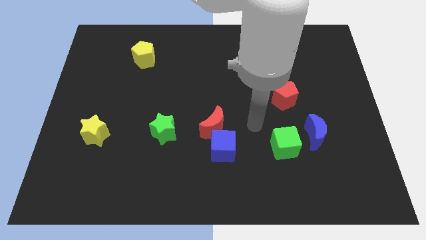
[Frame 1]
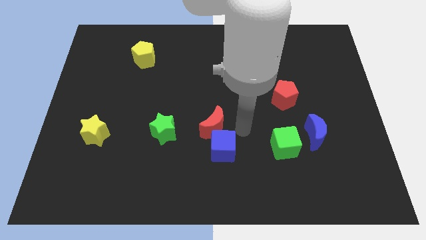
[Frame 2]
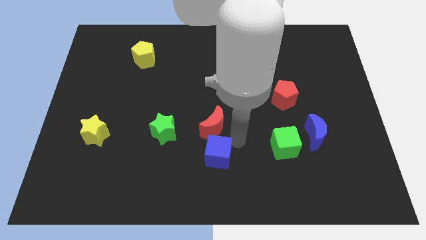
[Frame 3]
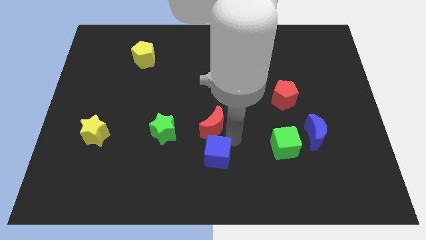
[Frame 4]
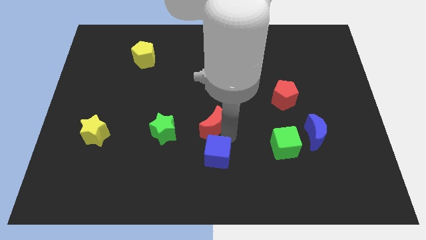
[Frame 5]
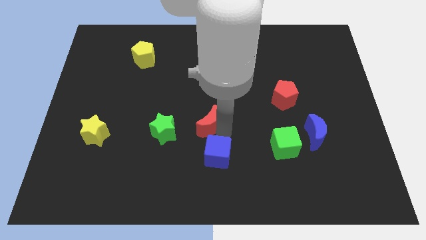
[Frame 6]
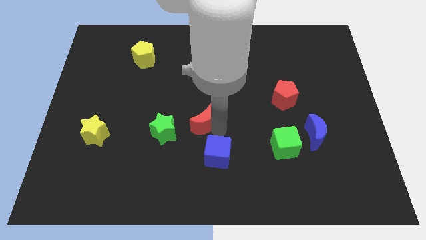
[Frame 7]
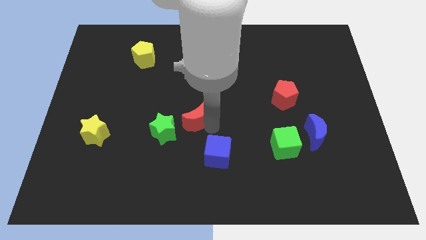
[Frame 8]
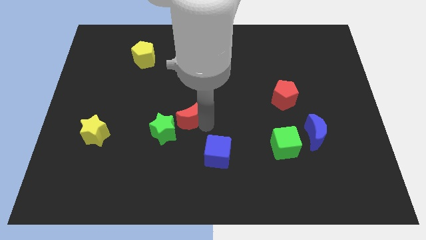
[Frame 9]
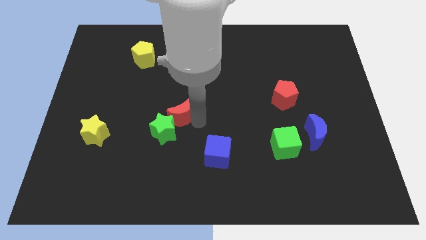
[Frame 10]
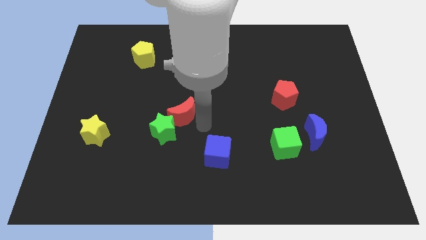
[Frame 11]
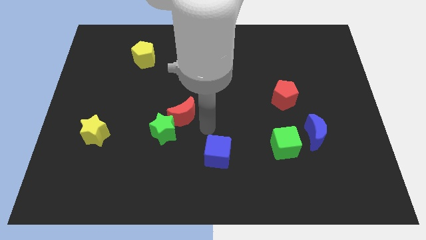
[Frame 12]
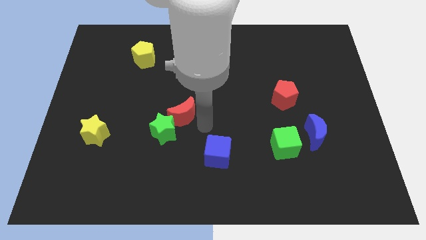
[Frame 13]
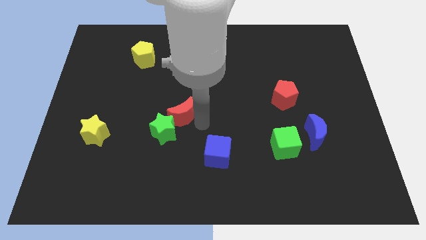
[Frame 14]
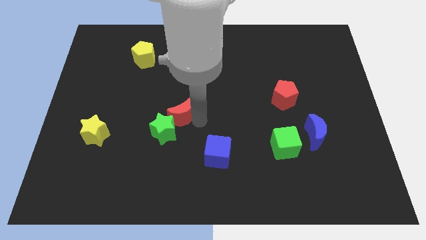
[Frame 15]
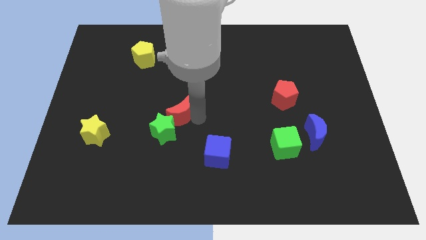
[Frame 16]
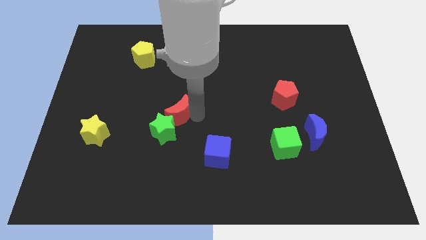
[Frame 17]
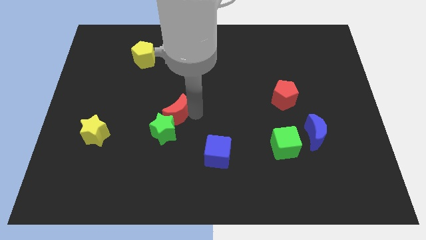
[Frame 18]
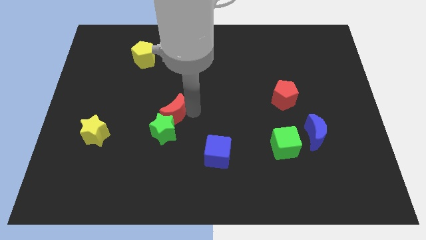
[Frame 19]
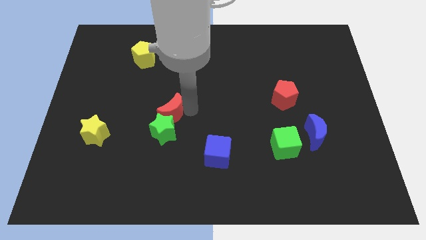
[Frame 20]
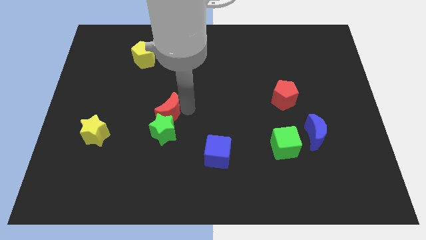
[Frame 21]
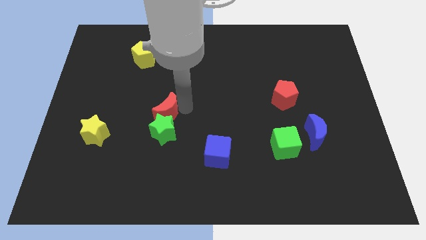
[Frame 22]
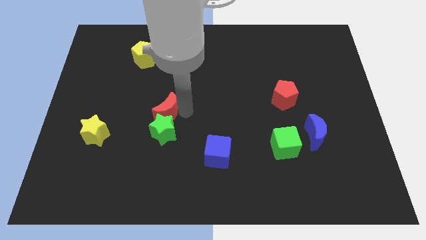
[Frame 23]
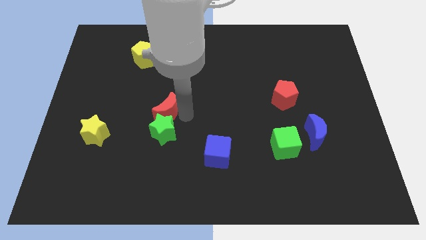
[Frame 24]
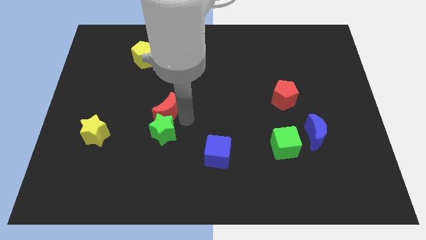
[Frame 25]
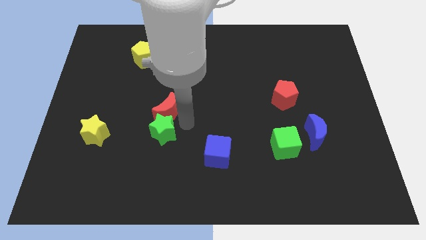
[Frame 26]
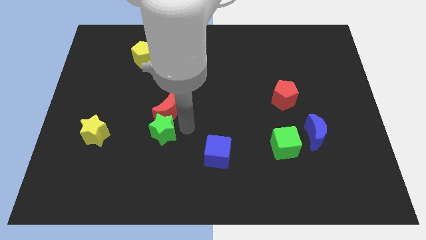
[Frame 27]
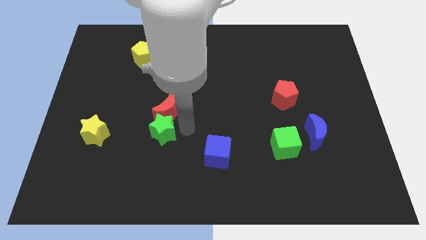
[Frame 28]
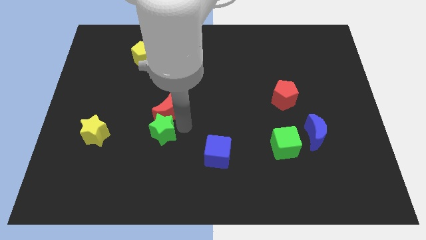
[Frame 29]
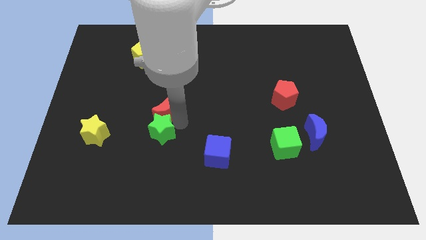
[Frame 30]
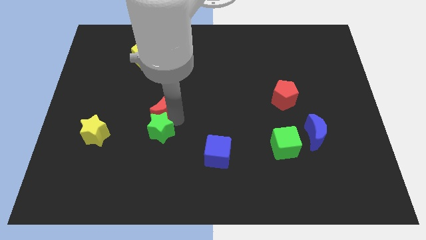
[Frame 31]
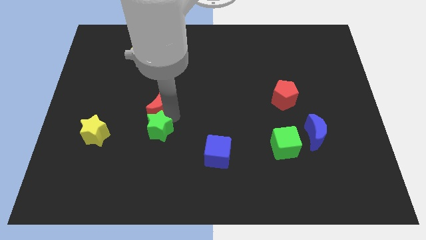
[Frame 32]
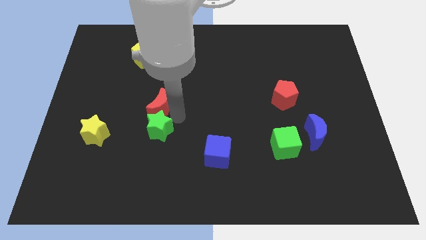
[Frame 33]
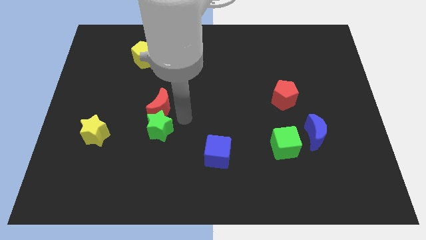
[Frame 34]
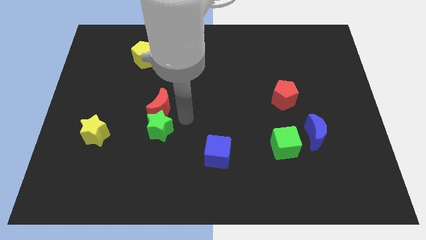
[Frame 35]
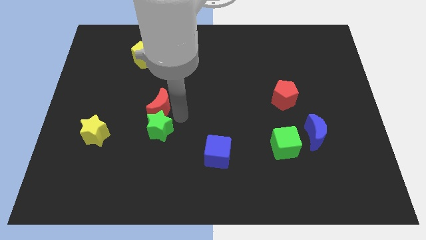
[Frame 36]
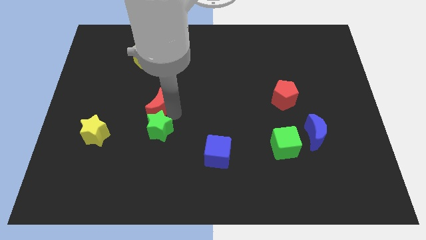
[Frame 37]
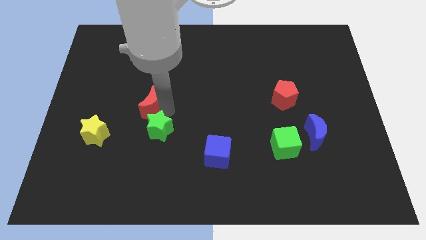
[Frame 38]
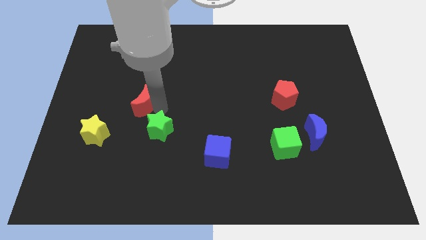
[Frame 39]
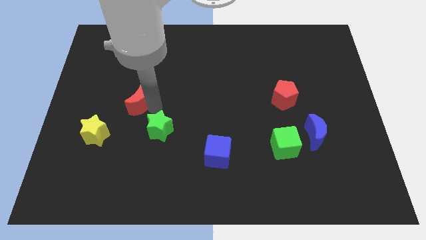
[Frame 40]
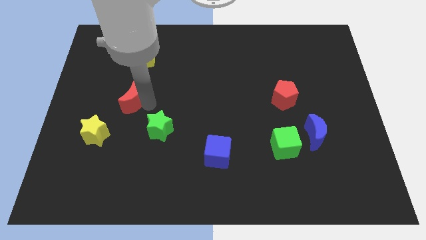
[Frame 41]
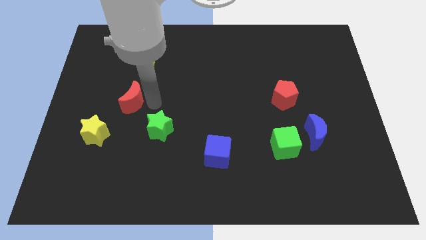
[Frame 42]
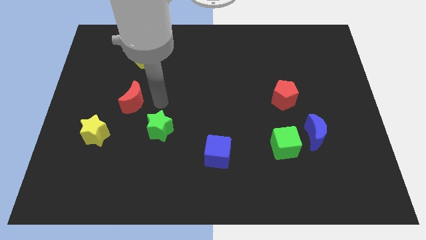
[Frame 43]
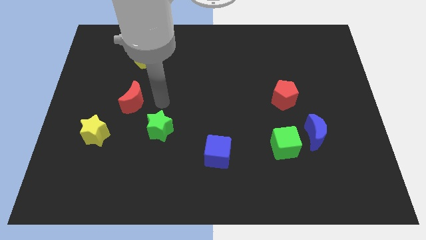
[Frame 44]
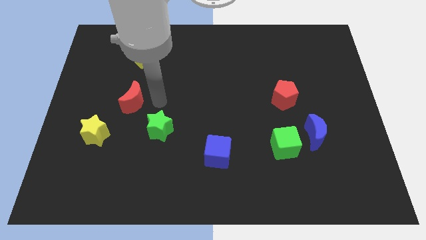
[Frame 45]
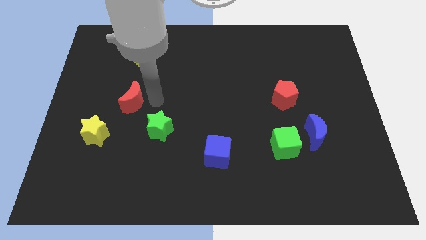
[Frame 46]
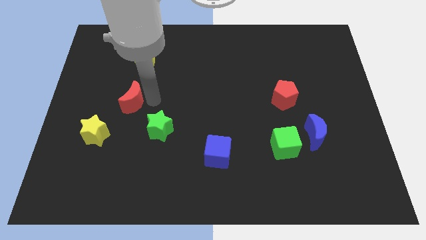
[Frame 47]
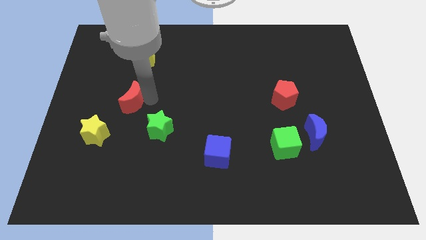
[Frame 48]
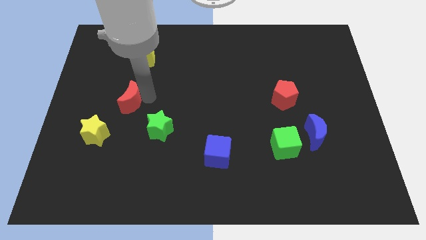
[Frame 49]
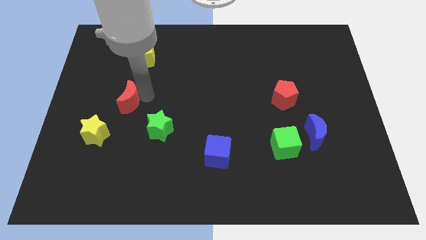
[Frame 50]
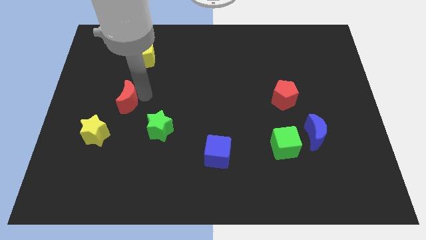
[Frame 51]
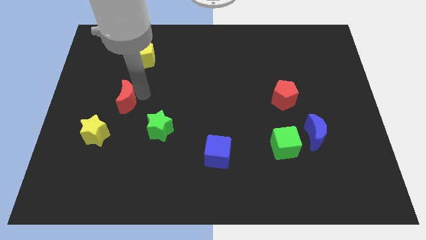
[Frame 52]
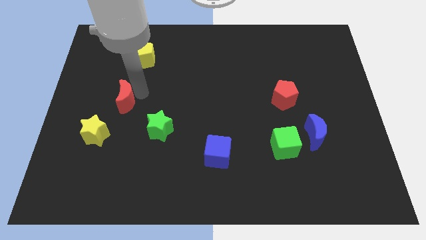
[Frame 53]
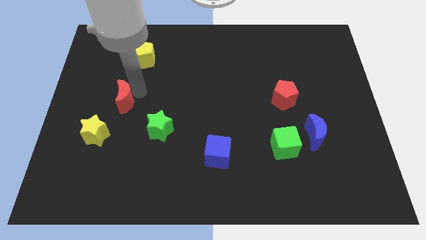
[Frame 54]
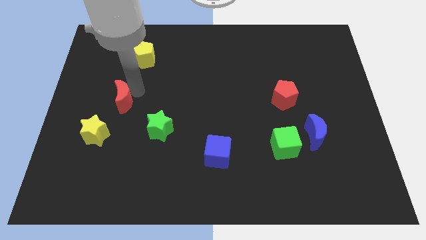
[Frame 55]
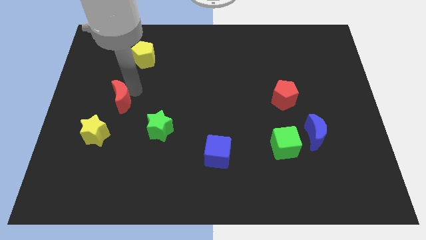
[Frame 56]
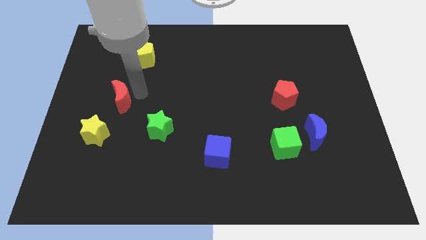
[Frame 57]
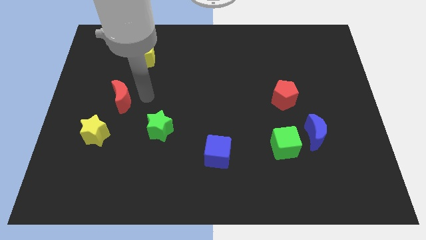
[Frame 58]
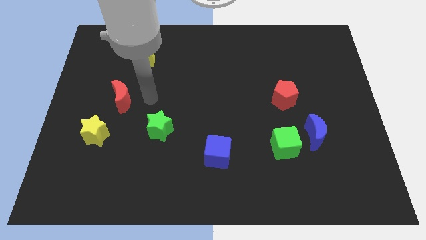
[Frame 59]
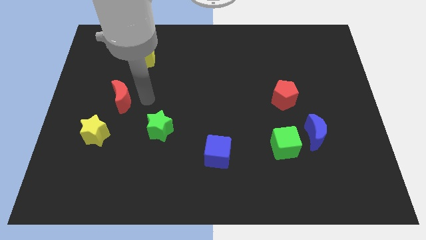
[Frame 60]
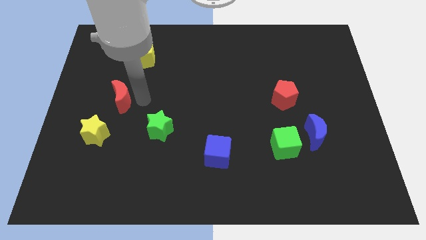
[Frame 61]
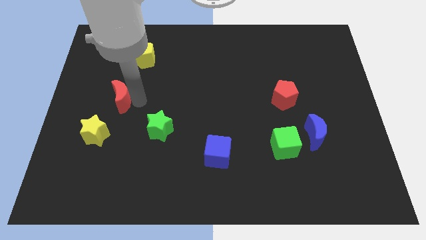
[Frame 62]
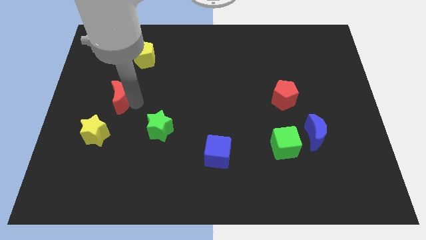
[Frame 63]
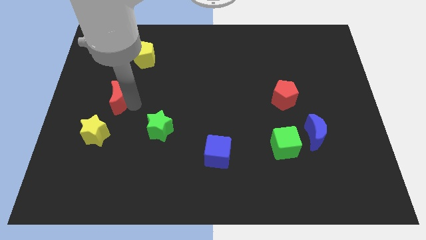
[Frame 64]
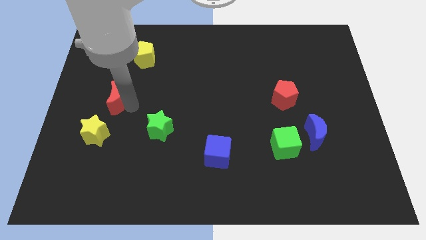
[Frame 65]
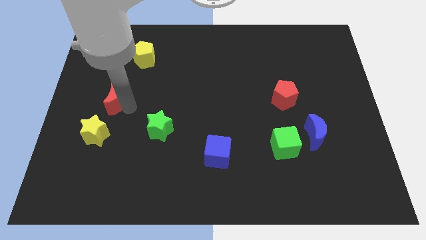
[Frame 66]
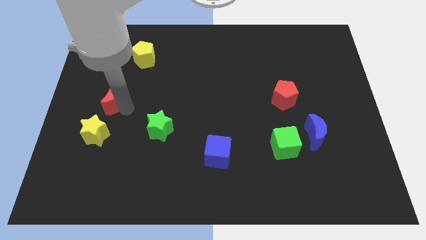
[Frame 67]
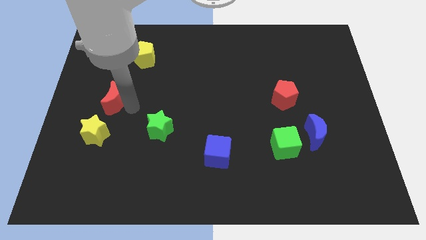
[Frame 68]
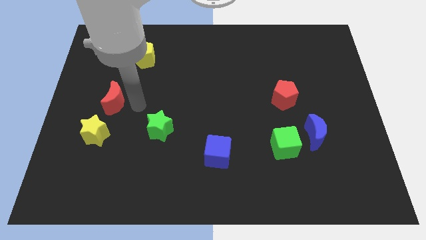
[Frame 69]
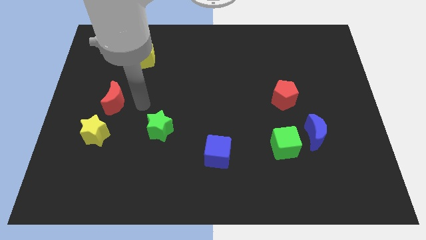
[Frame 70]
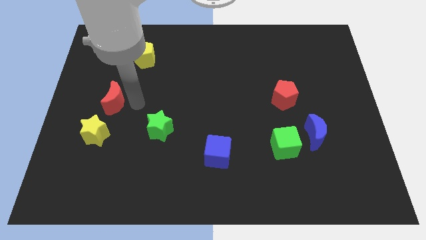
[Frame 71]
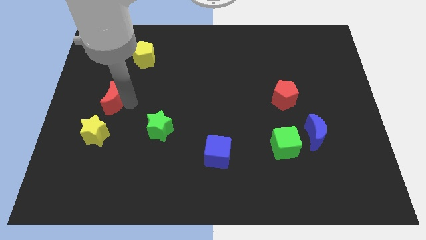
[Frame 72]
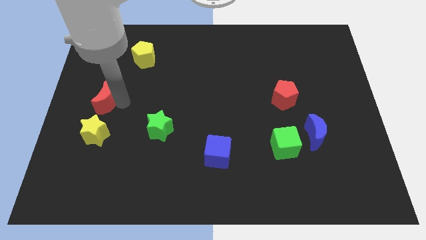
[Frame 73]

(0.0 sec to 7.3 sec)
put the red moon to the center left
